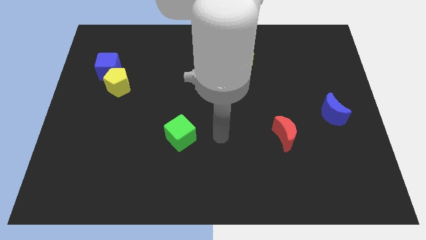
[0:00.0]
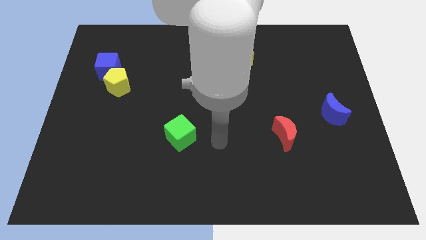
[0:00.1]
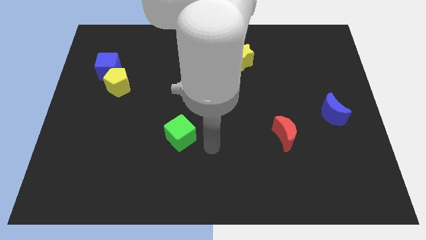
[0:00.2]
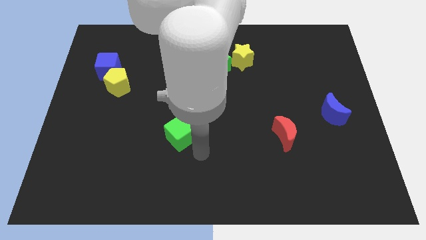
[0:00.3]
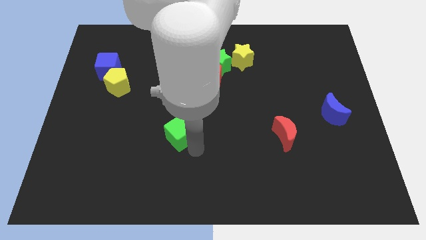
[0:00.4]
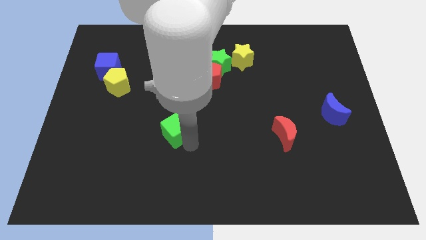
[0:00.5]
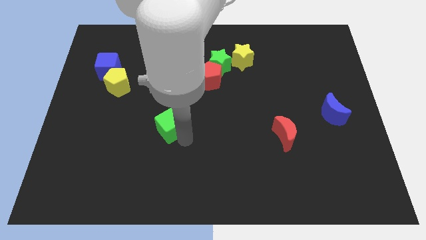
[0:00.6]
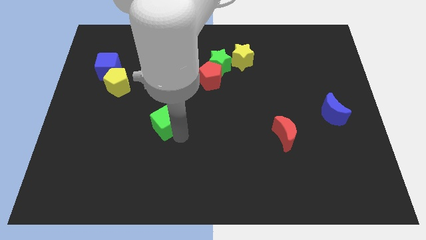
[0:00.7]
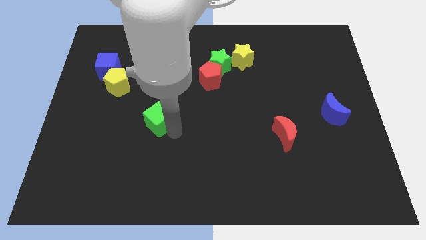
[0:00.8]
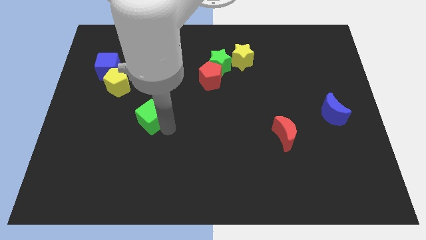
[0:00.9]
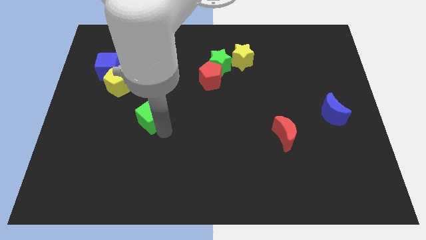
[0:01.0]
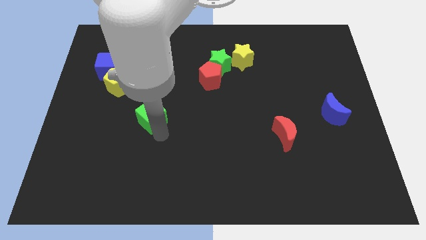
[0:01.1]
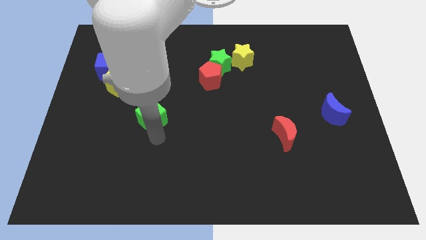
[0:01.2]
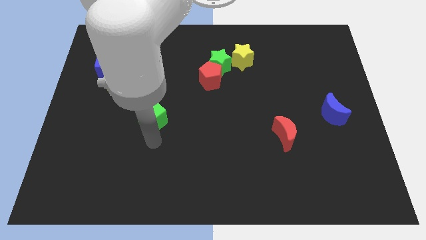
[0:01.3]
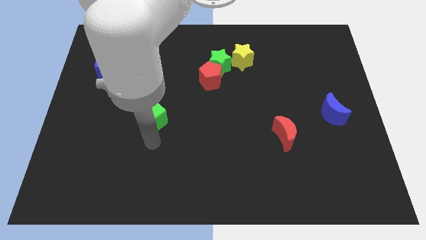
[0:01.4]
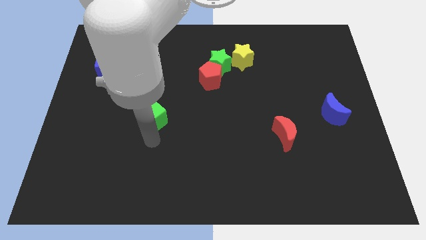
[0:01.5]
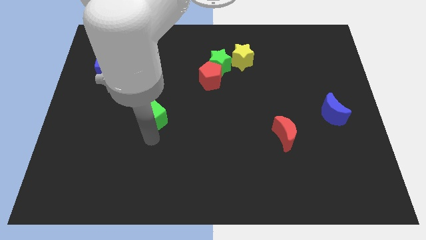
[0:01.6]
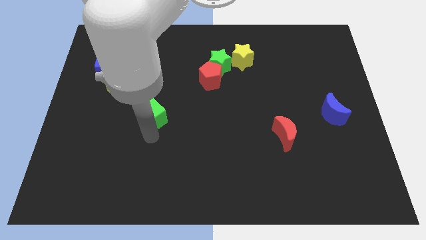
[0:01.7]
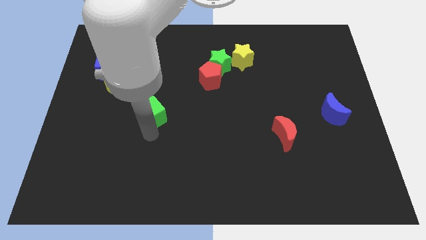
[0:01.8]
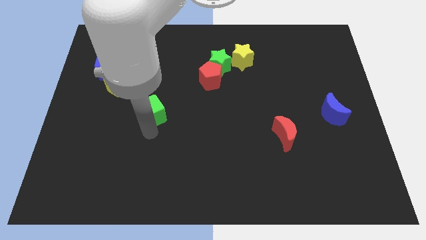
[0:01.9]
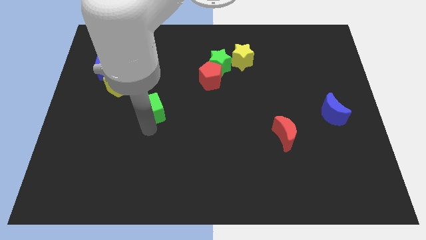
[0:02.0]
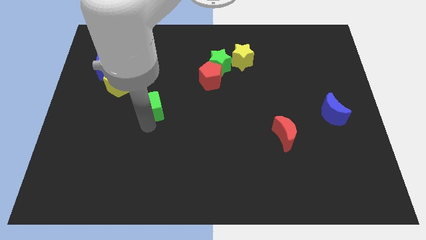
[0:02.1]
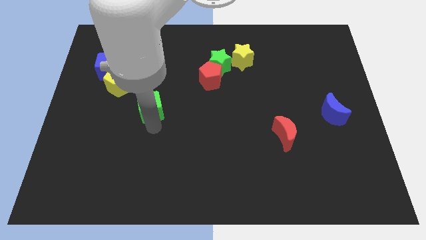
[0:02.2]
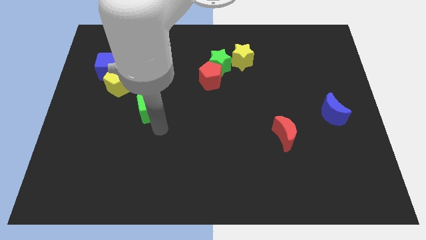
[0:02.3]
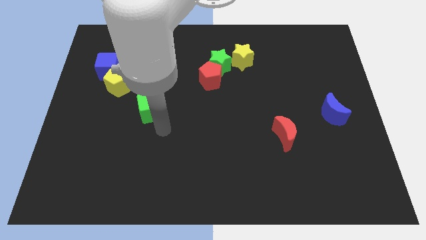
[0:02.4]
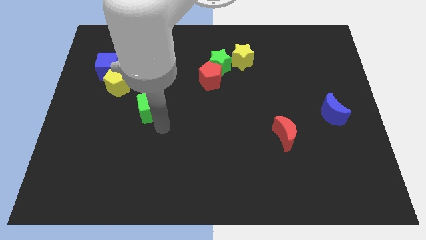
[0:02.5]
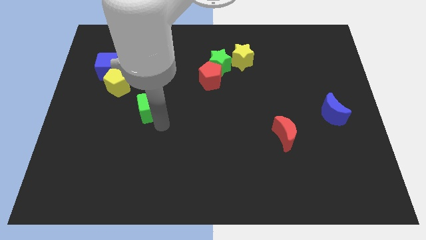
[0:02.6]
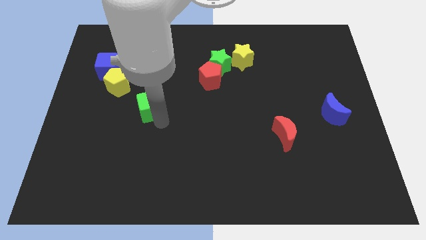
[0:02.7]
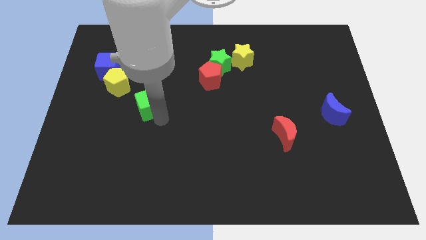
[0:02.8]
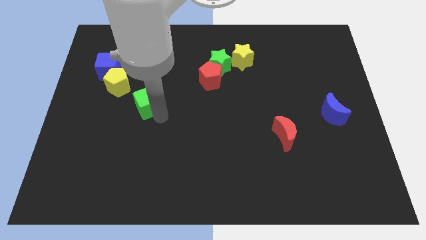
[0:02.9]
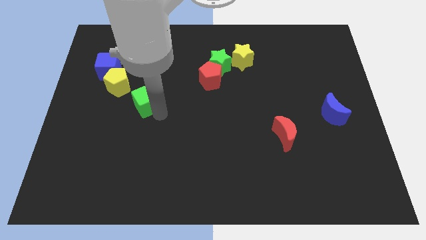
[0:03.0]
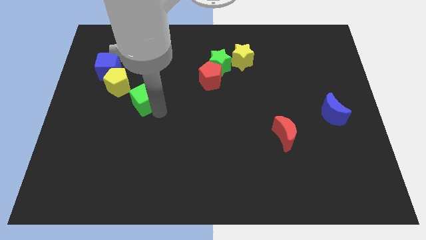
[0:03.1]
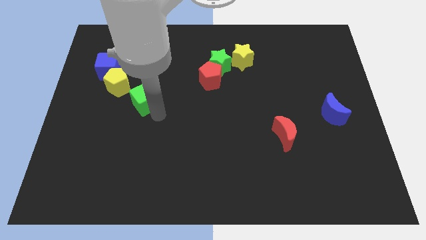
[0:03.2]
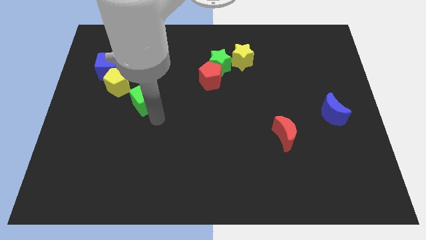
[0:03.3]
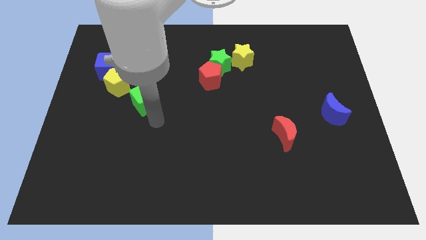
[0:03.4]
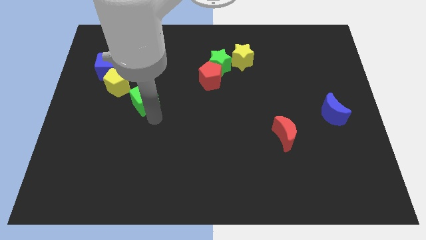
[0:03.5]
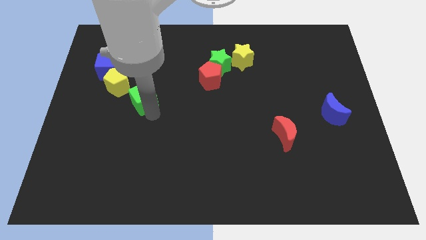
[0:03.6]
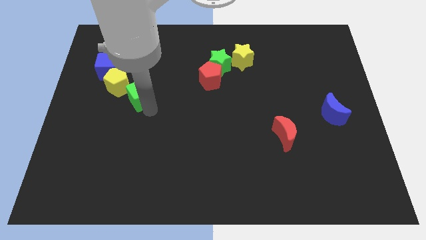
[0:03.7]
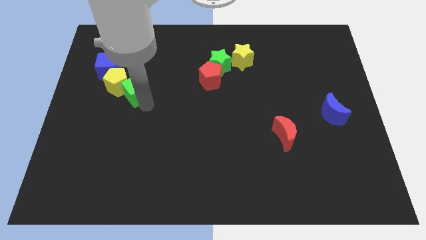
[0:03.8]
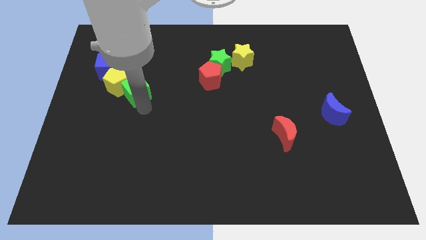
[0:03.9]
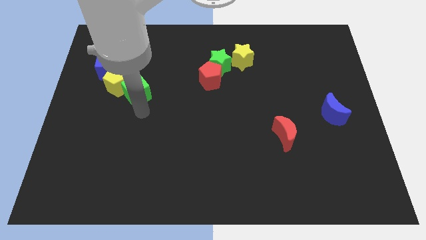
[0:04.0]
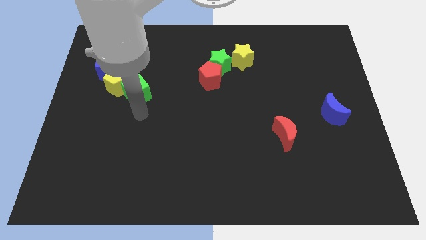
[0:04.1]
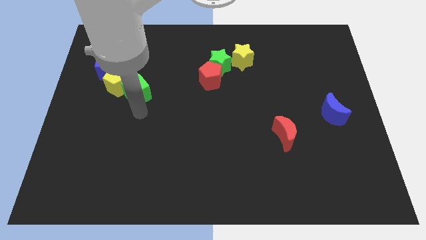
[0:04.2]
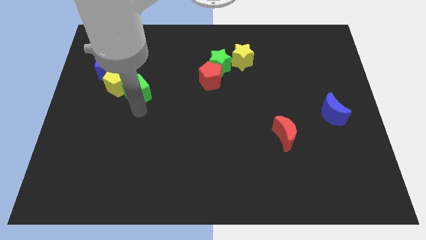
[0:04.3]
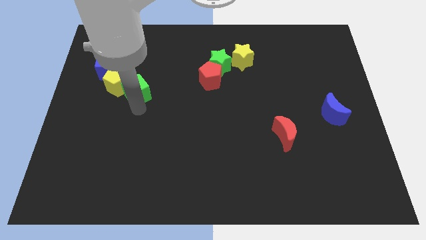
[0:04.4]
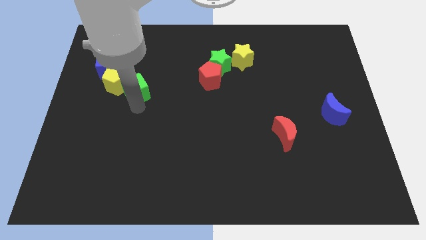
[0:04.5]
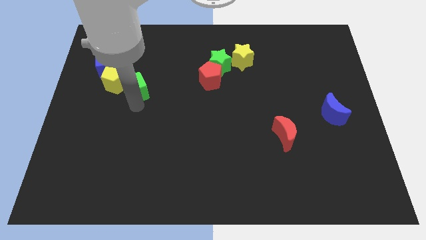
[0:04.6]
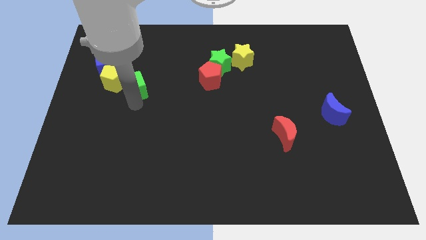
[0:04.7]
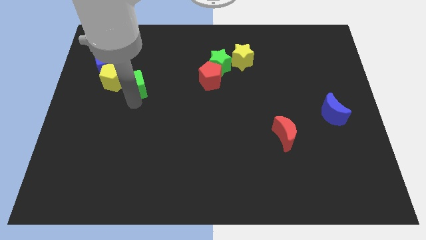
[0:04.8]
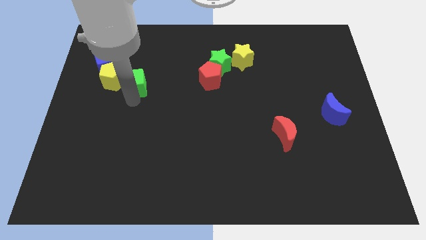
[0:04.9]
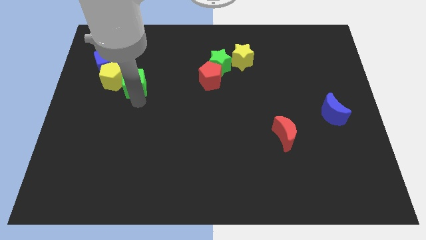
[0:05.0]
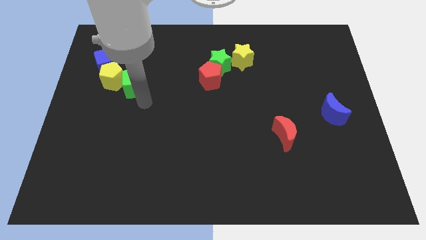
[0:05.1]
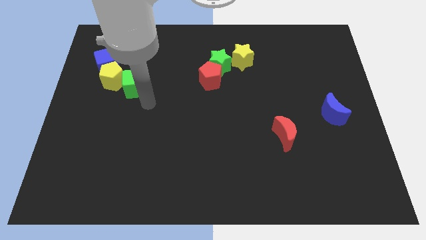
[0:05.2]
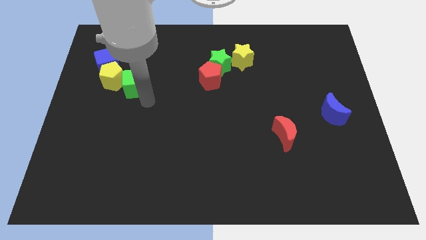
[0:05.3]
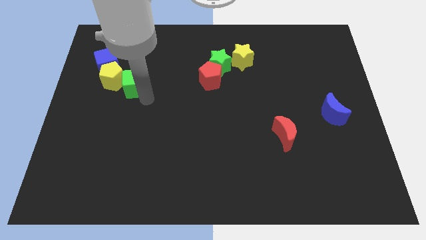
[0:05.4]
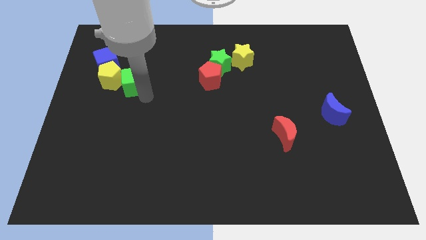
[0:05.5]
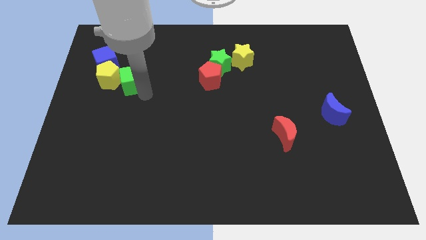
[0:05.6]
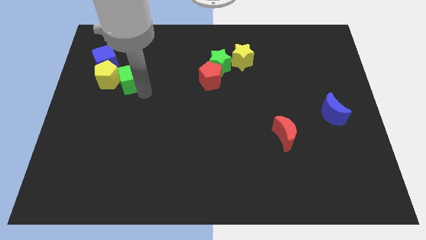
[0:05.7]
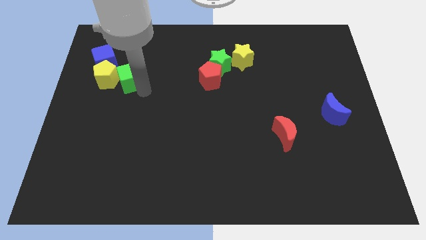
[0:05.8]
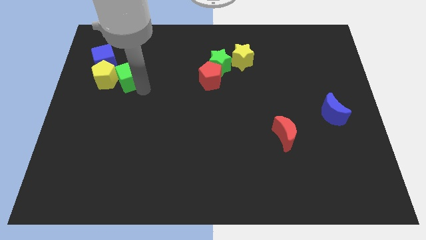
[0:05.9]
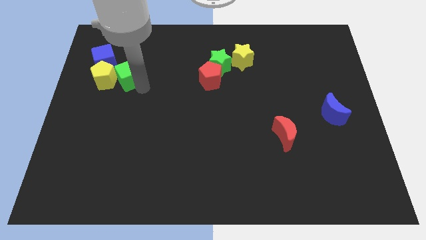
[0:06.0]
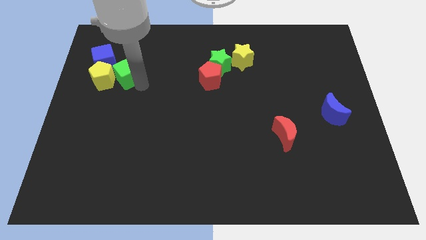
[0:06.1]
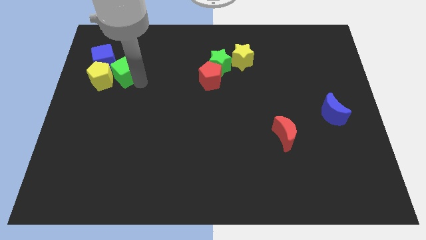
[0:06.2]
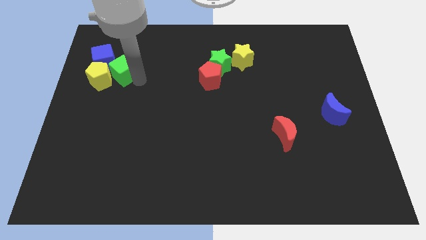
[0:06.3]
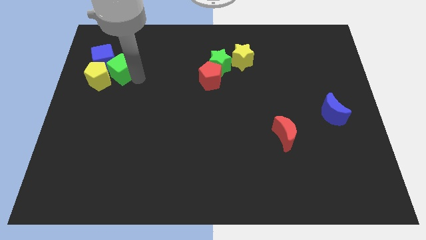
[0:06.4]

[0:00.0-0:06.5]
push the green cube to the blue cube

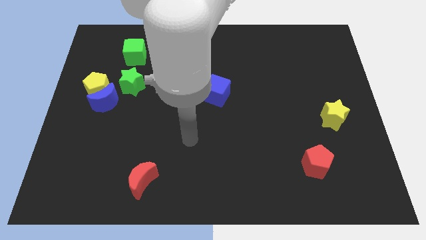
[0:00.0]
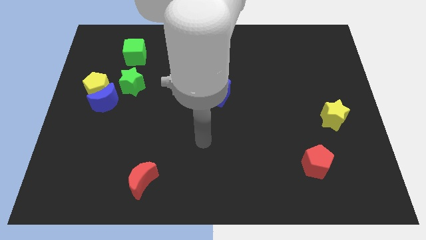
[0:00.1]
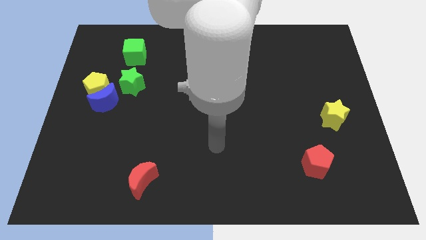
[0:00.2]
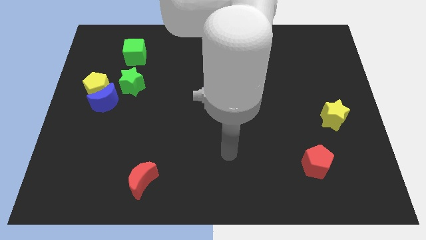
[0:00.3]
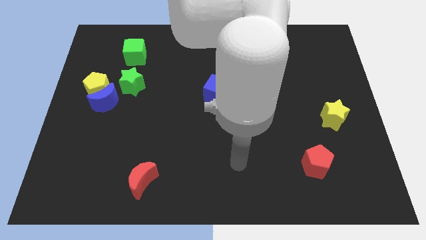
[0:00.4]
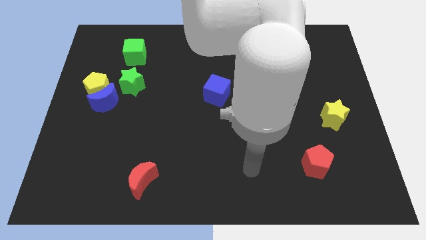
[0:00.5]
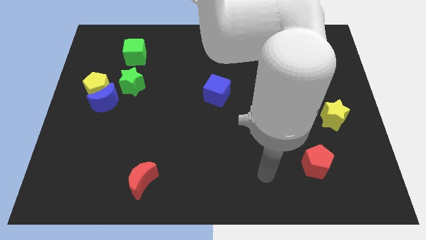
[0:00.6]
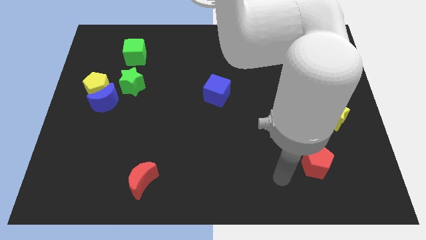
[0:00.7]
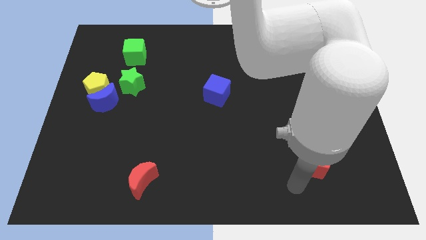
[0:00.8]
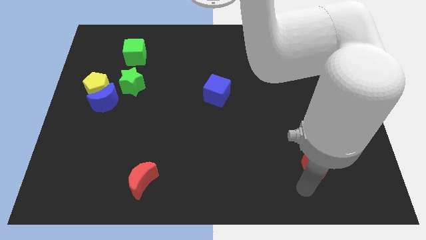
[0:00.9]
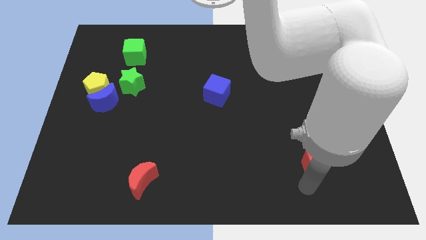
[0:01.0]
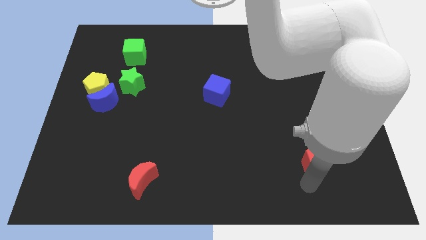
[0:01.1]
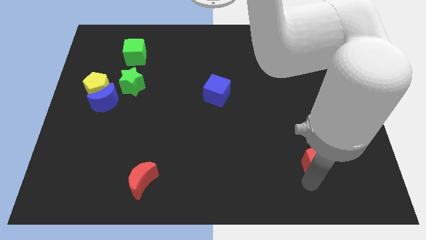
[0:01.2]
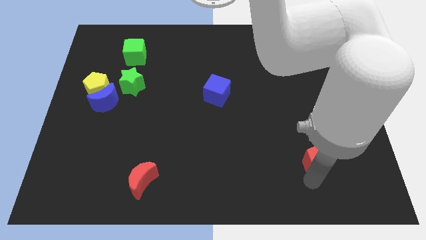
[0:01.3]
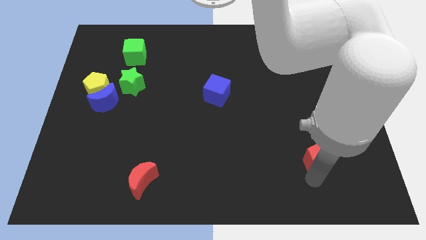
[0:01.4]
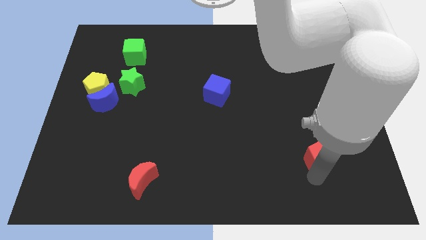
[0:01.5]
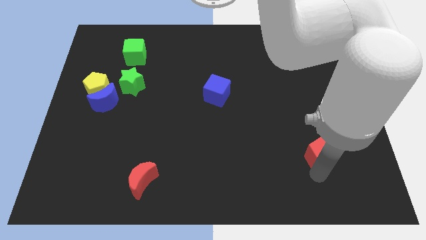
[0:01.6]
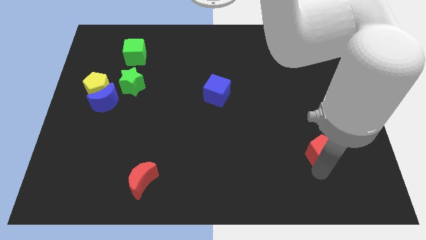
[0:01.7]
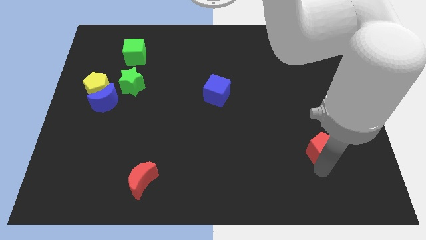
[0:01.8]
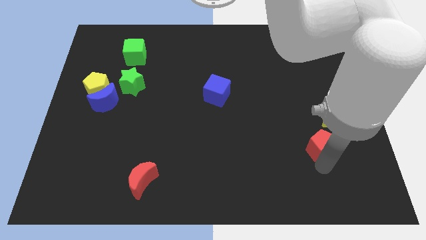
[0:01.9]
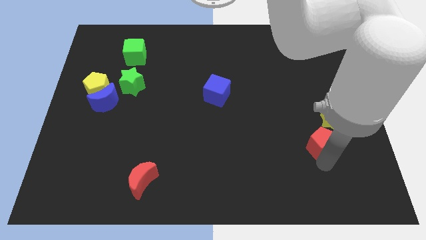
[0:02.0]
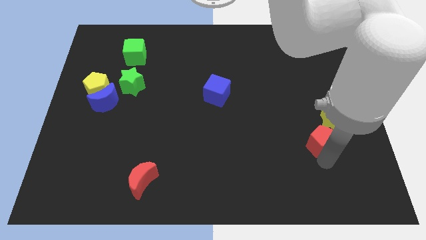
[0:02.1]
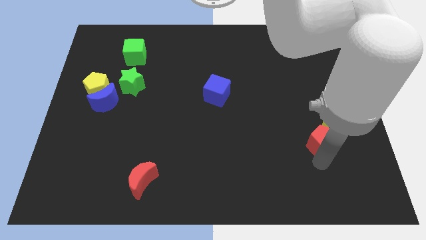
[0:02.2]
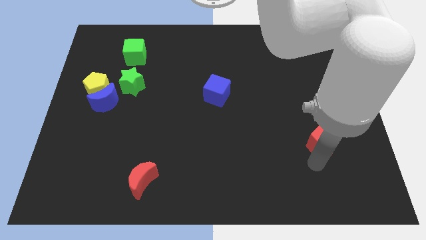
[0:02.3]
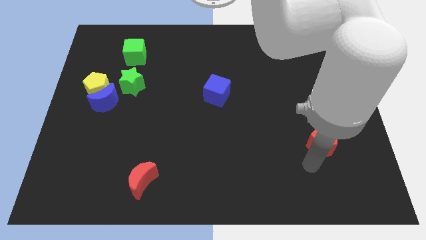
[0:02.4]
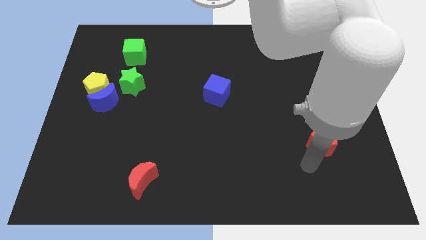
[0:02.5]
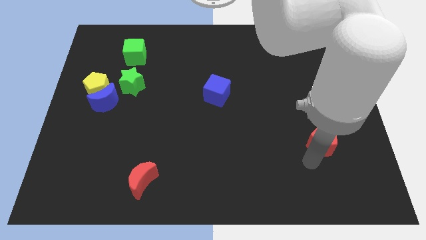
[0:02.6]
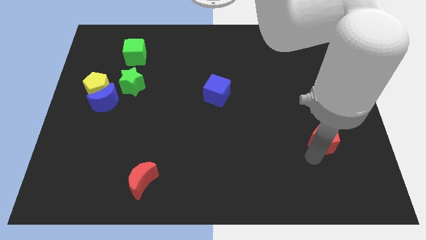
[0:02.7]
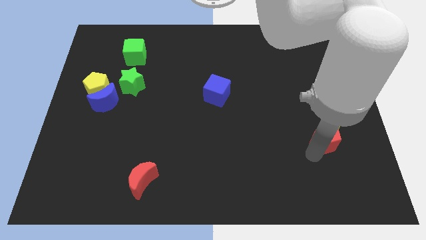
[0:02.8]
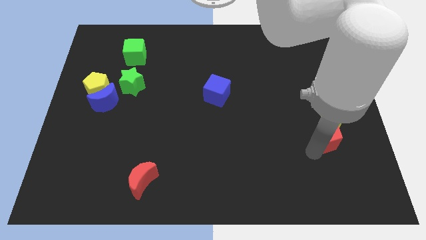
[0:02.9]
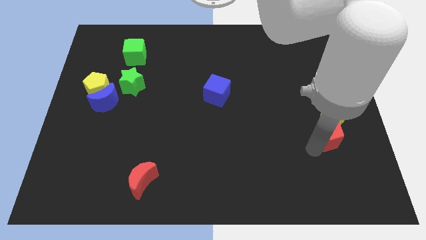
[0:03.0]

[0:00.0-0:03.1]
push the red pentagon to the yellow star
